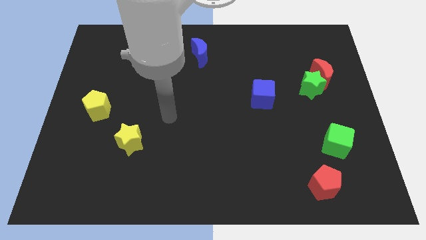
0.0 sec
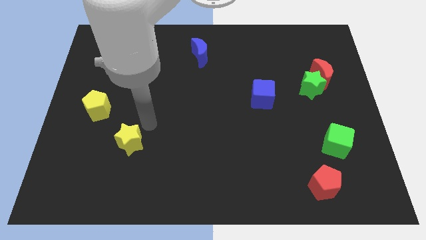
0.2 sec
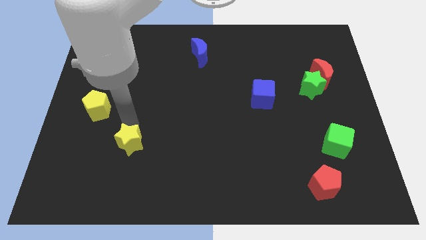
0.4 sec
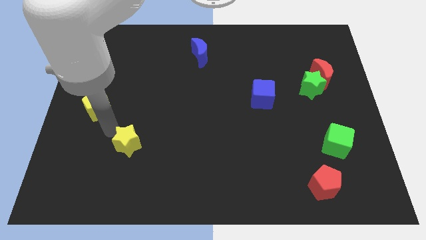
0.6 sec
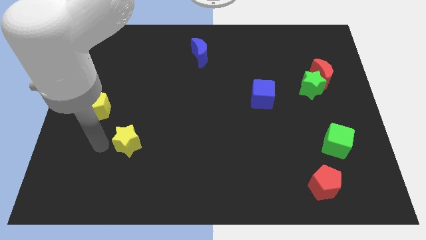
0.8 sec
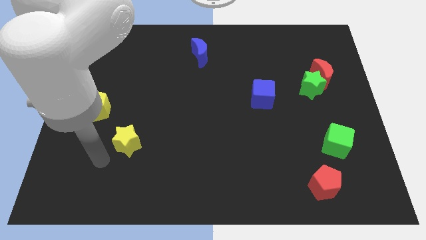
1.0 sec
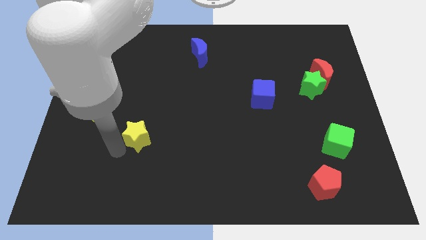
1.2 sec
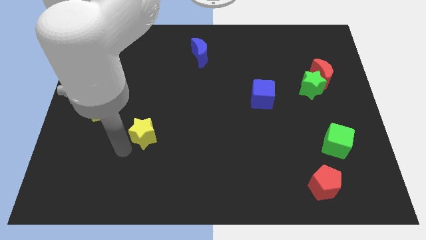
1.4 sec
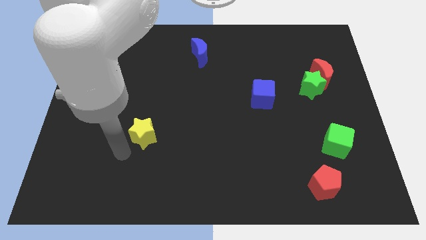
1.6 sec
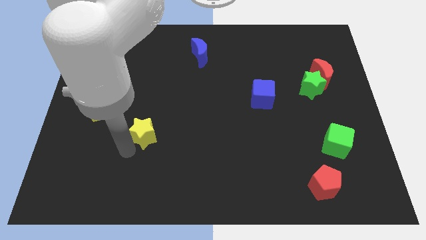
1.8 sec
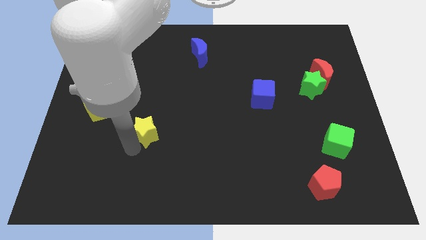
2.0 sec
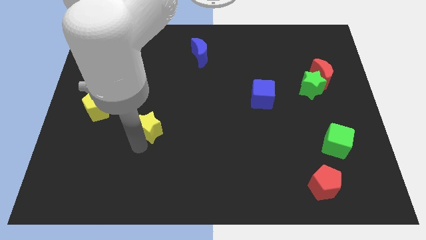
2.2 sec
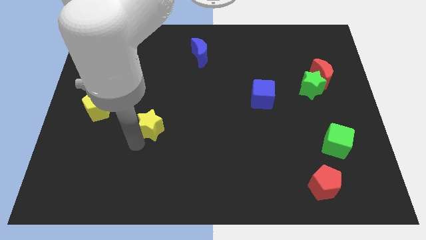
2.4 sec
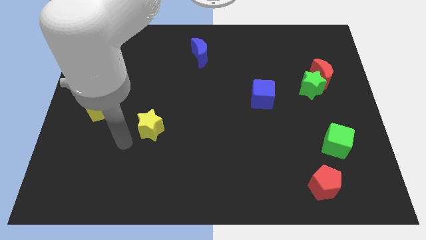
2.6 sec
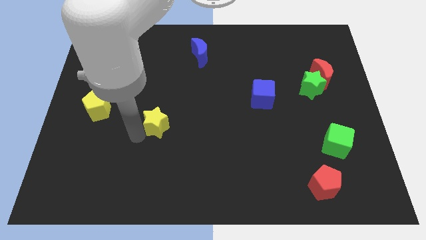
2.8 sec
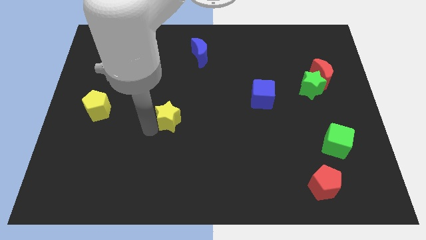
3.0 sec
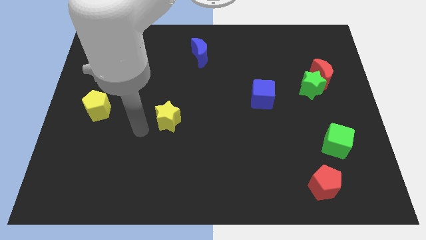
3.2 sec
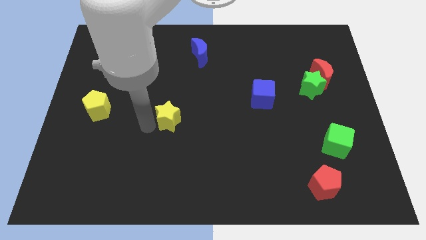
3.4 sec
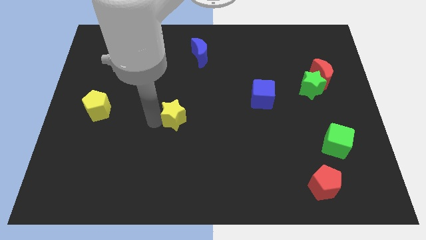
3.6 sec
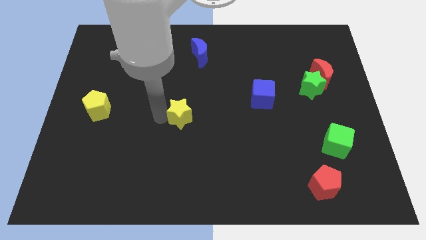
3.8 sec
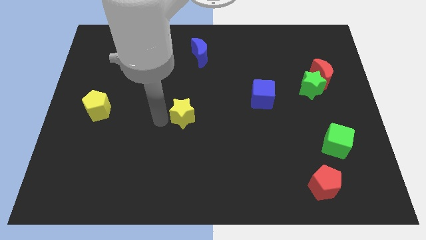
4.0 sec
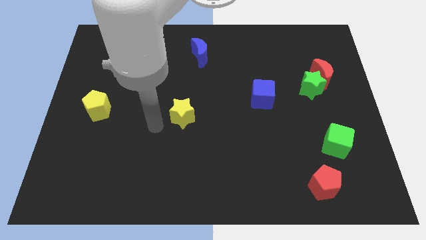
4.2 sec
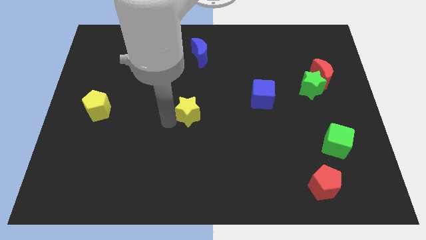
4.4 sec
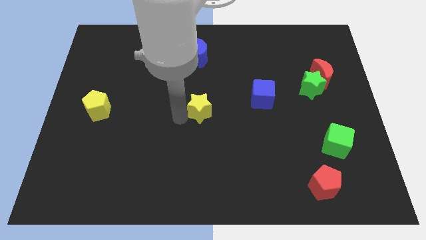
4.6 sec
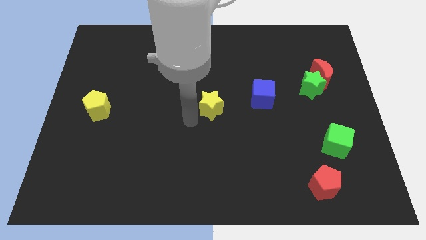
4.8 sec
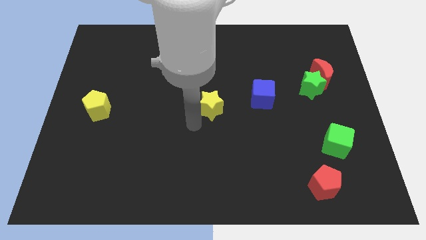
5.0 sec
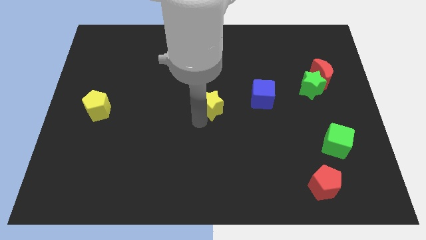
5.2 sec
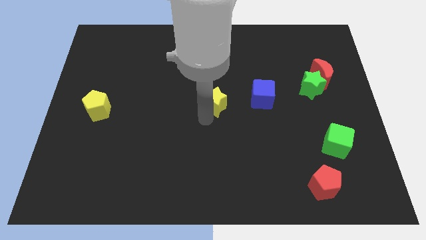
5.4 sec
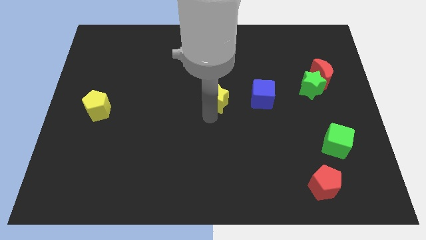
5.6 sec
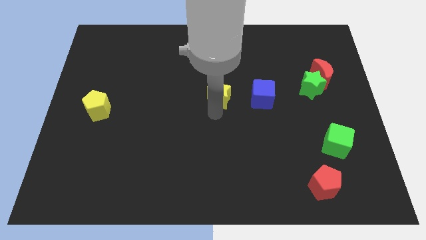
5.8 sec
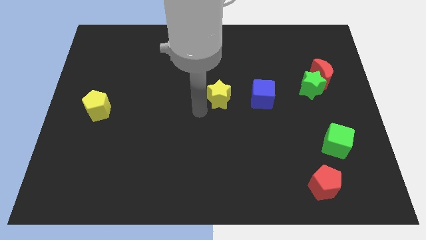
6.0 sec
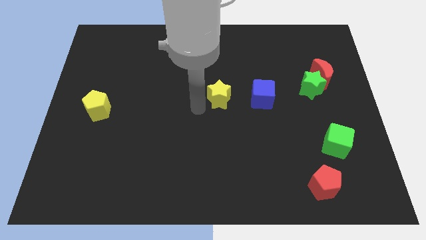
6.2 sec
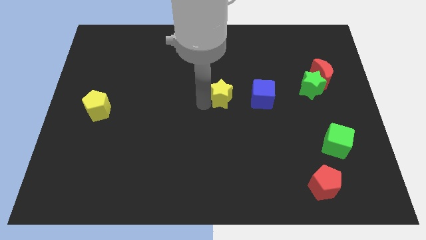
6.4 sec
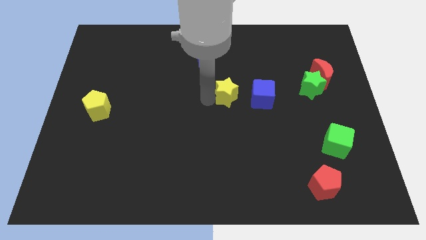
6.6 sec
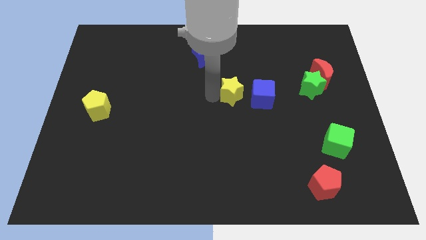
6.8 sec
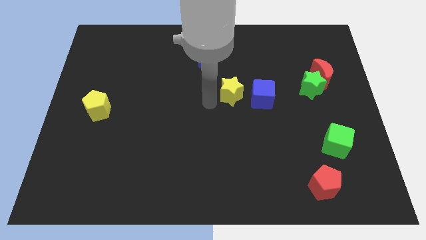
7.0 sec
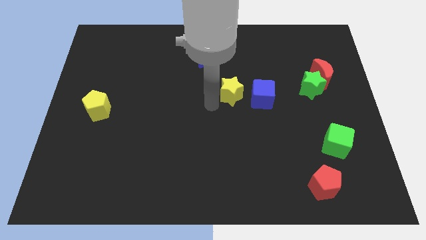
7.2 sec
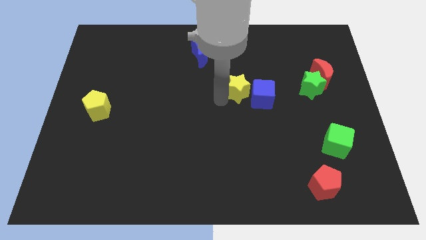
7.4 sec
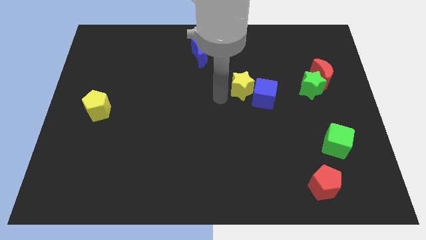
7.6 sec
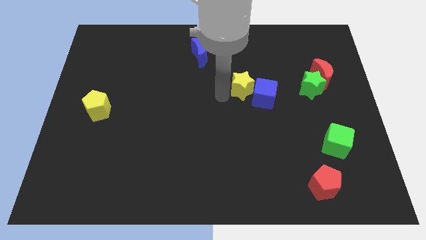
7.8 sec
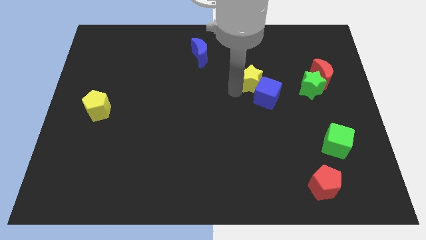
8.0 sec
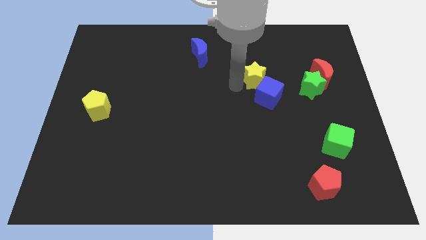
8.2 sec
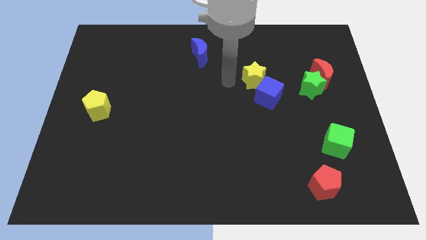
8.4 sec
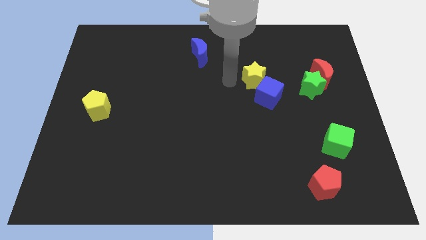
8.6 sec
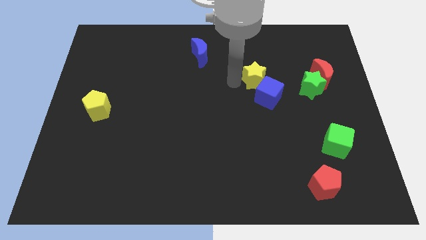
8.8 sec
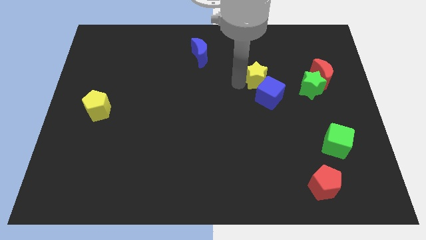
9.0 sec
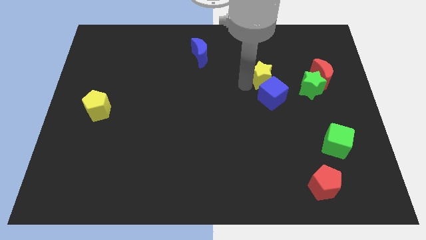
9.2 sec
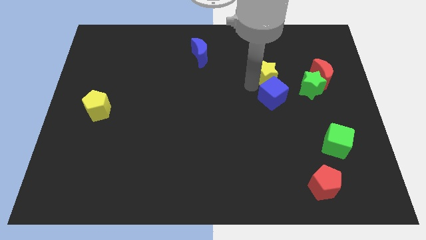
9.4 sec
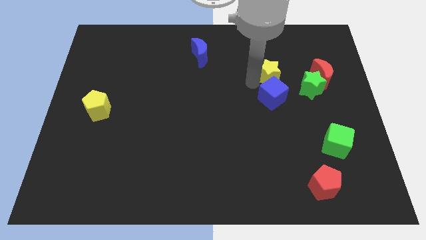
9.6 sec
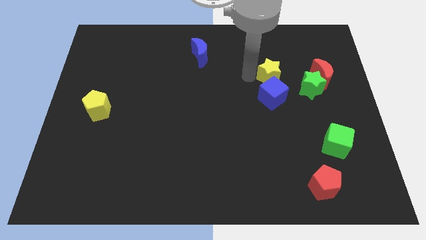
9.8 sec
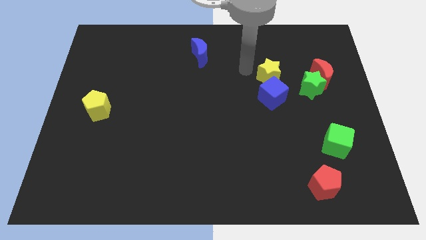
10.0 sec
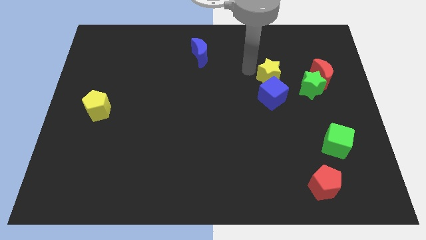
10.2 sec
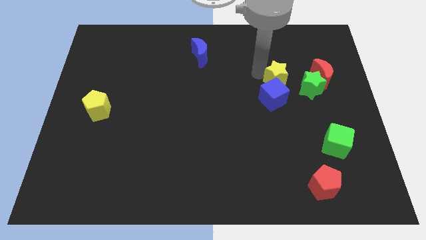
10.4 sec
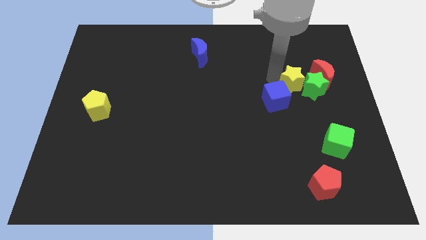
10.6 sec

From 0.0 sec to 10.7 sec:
push the yellow star next to the green star

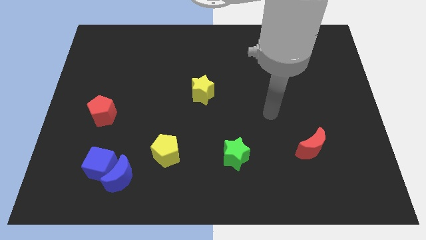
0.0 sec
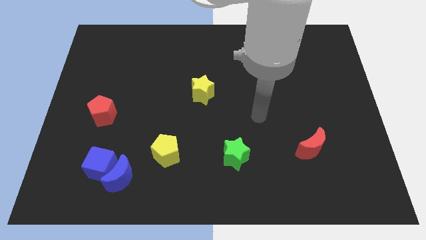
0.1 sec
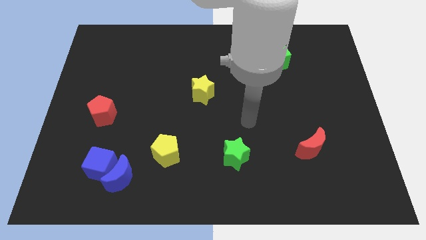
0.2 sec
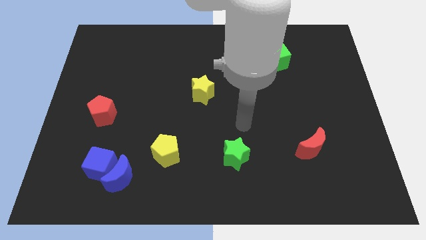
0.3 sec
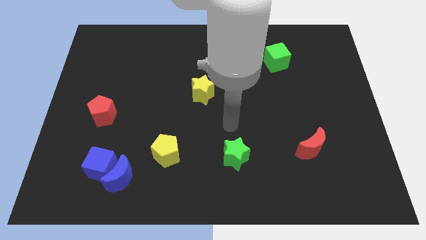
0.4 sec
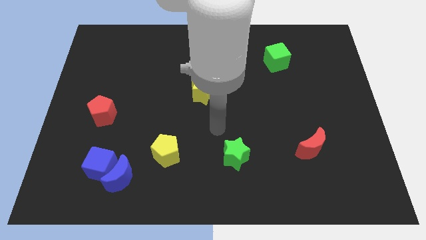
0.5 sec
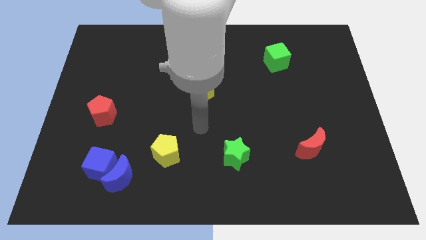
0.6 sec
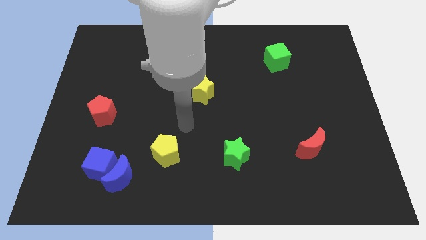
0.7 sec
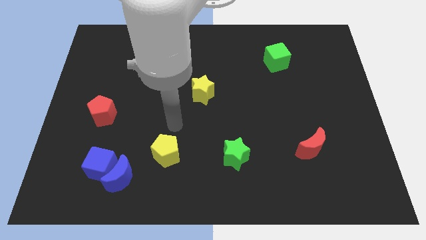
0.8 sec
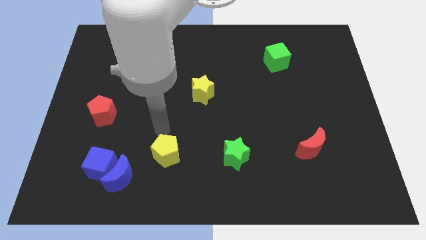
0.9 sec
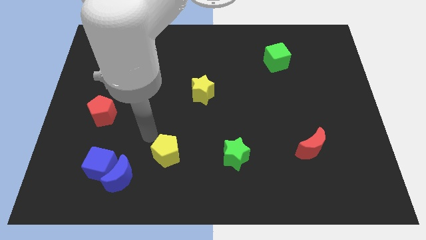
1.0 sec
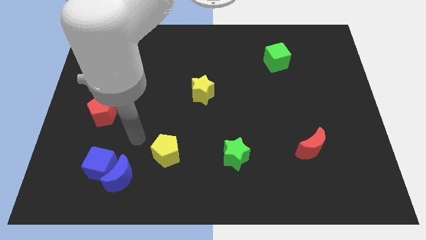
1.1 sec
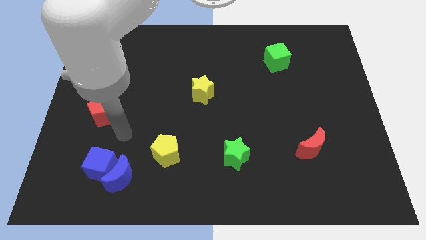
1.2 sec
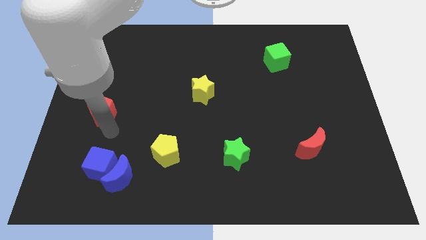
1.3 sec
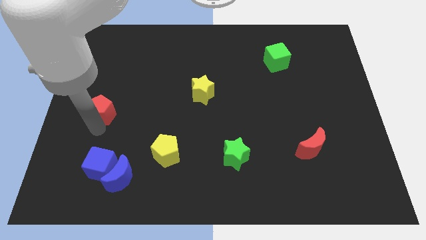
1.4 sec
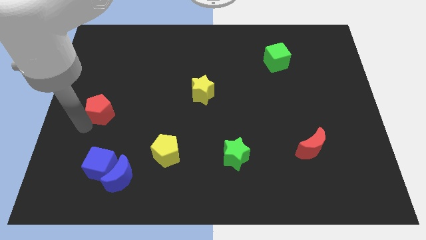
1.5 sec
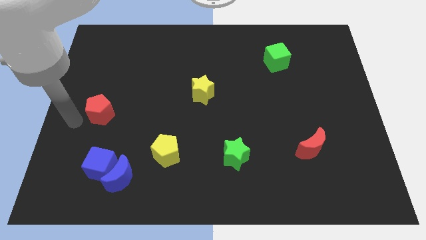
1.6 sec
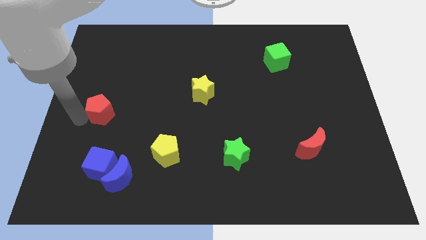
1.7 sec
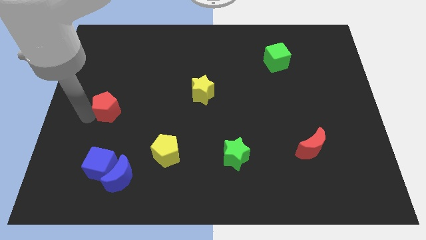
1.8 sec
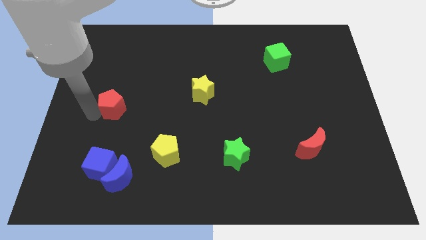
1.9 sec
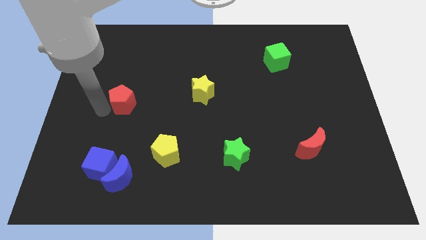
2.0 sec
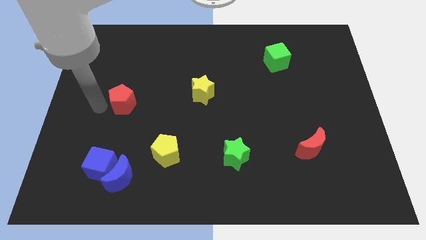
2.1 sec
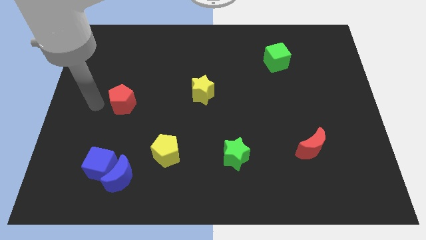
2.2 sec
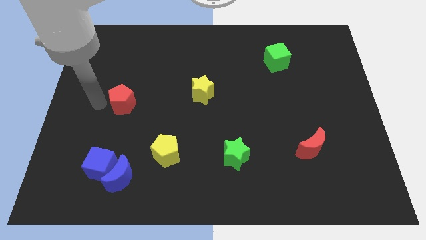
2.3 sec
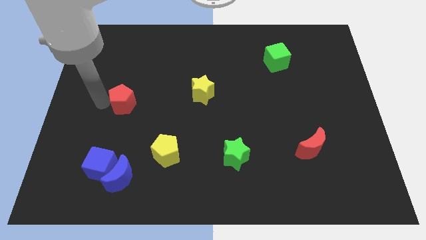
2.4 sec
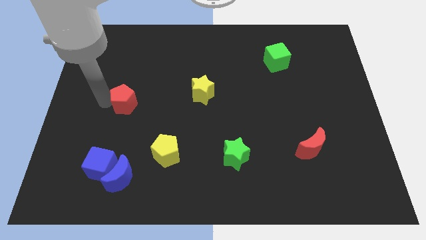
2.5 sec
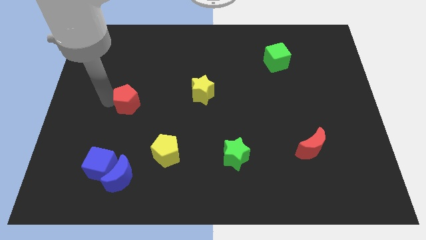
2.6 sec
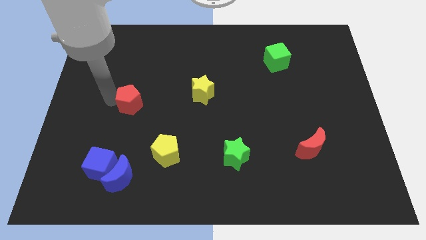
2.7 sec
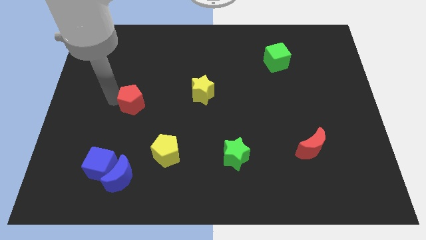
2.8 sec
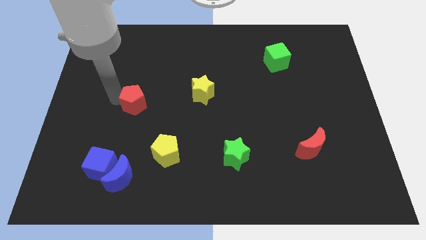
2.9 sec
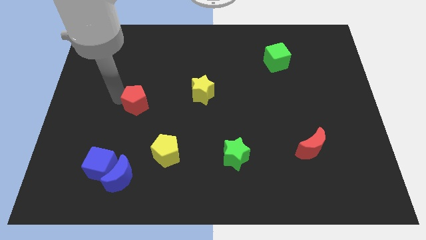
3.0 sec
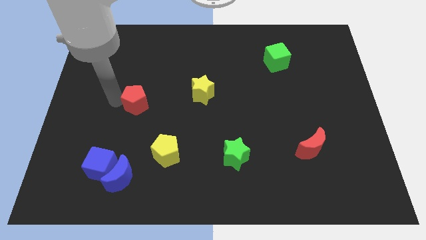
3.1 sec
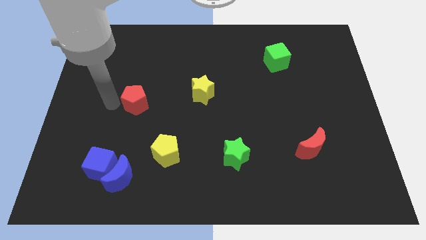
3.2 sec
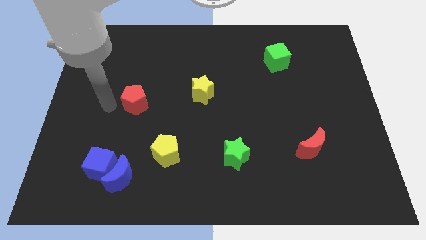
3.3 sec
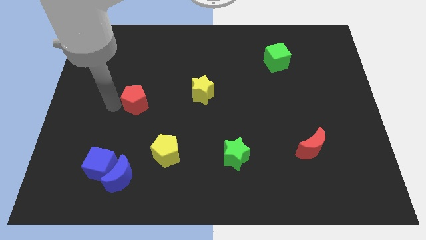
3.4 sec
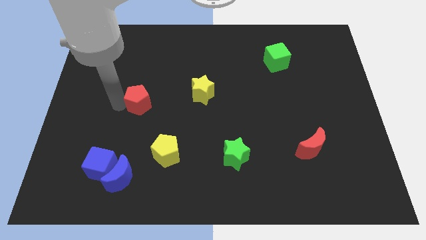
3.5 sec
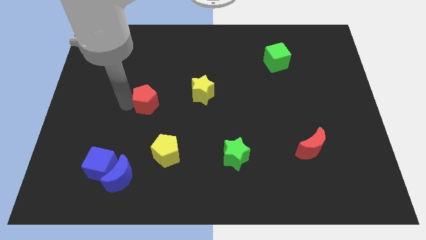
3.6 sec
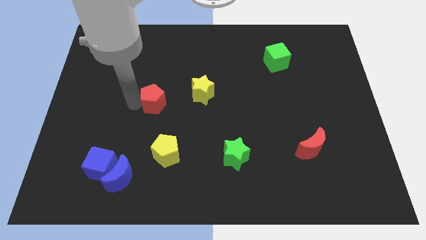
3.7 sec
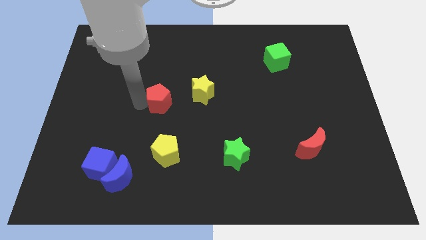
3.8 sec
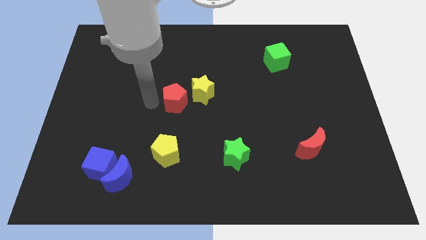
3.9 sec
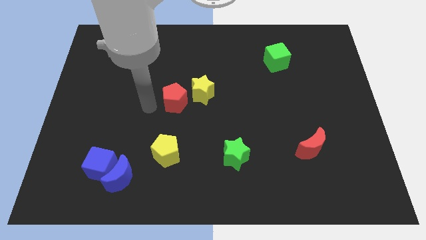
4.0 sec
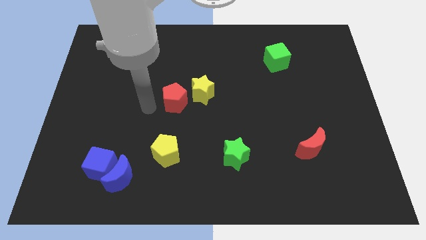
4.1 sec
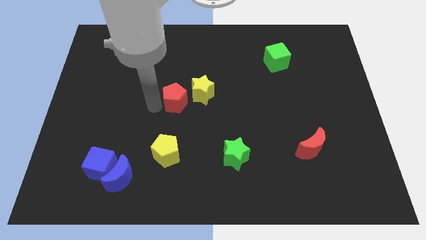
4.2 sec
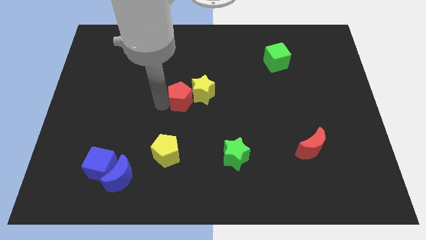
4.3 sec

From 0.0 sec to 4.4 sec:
move the red pentagon towards the yellow star
